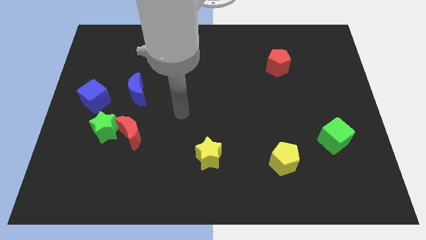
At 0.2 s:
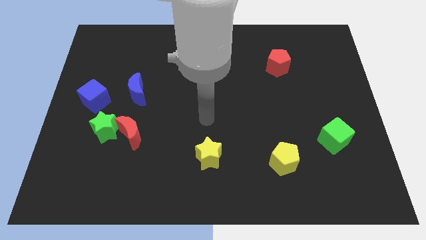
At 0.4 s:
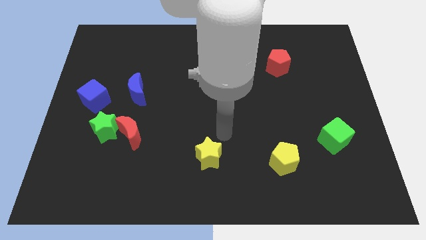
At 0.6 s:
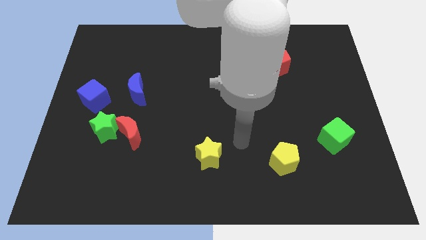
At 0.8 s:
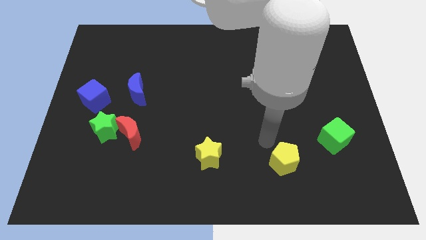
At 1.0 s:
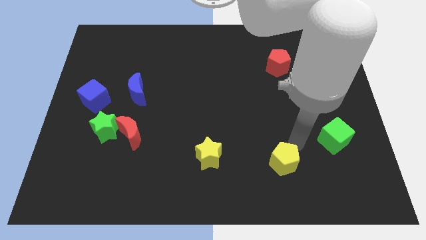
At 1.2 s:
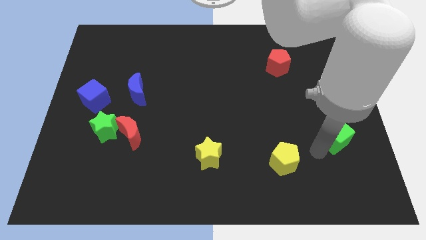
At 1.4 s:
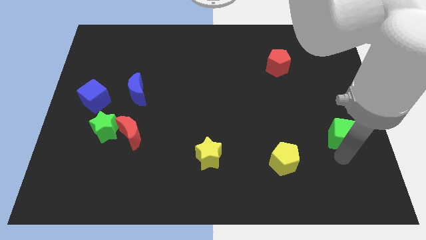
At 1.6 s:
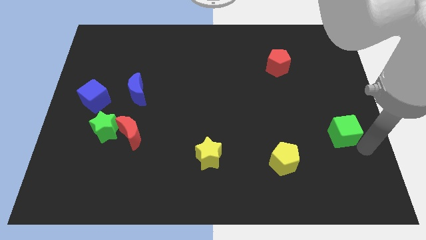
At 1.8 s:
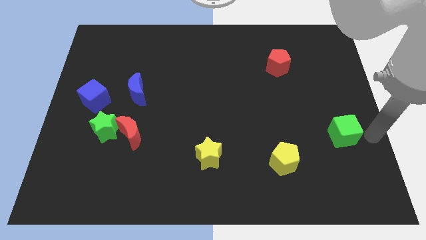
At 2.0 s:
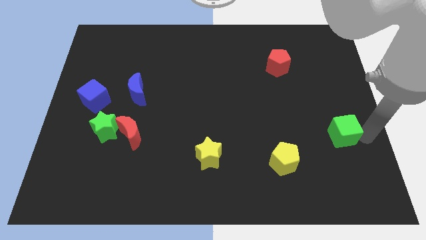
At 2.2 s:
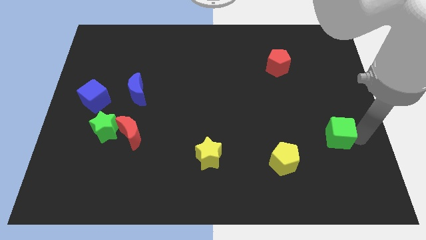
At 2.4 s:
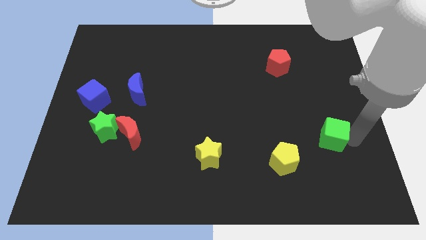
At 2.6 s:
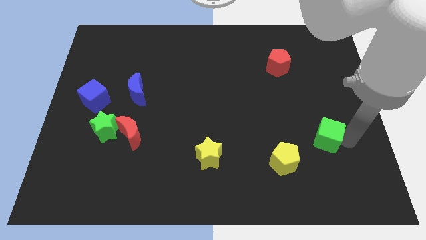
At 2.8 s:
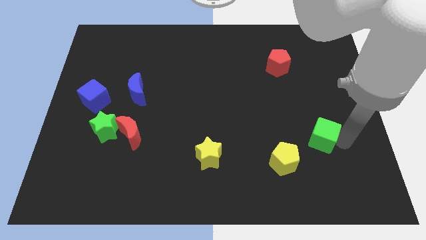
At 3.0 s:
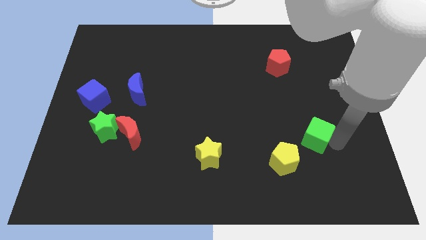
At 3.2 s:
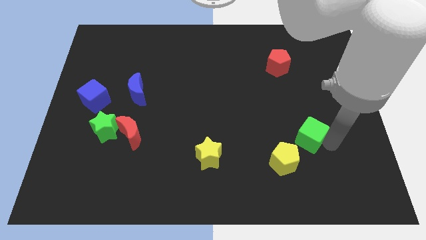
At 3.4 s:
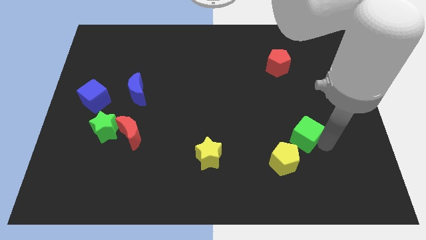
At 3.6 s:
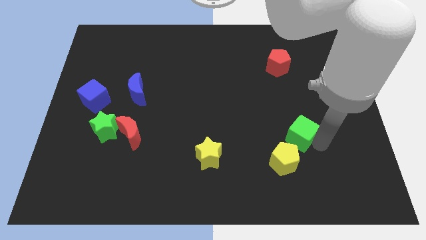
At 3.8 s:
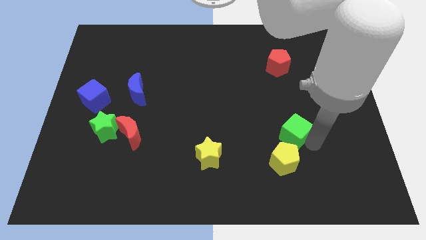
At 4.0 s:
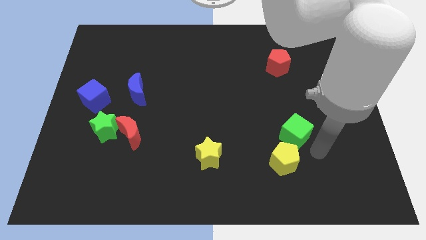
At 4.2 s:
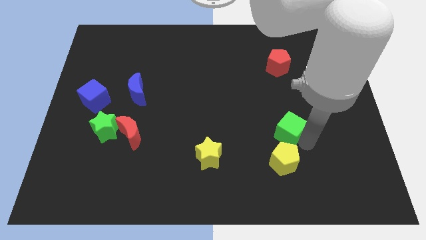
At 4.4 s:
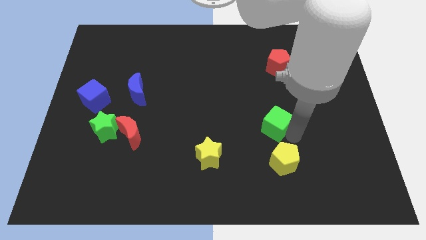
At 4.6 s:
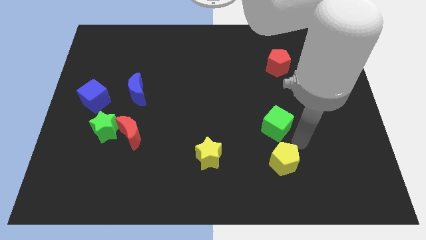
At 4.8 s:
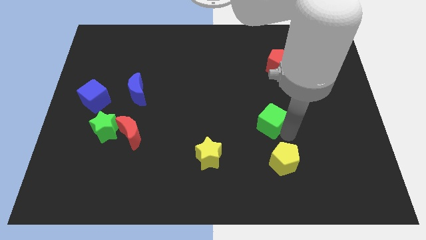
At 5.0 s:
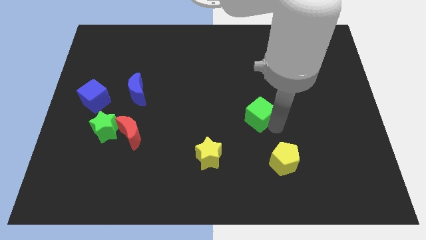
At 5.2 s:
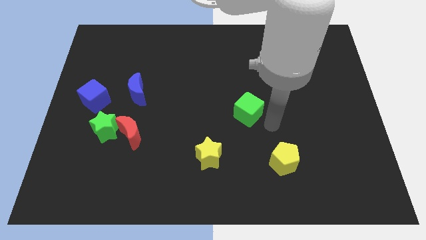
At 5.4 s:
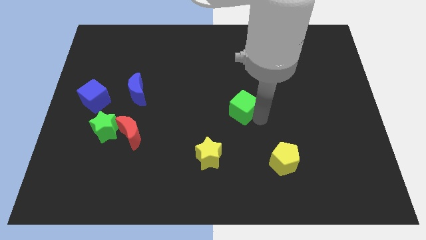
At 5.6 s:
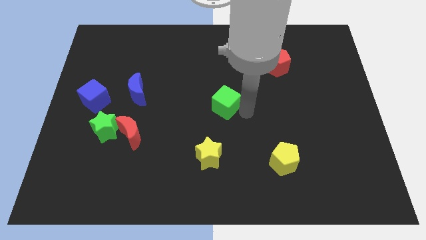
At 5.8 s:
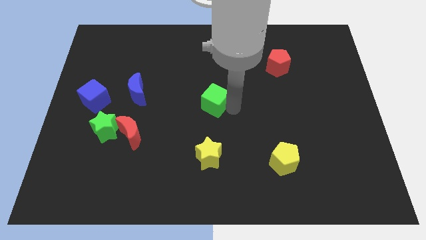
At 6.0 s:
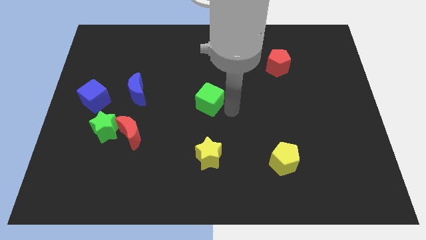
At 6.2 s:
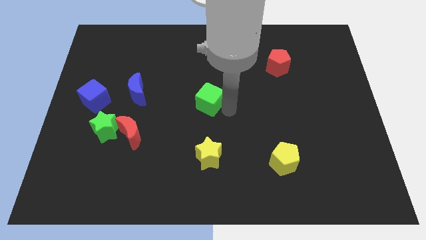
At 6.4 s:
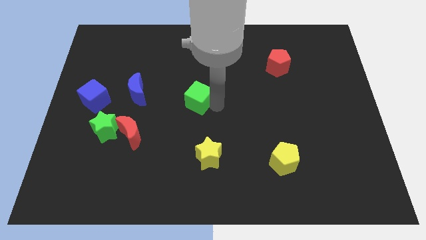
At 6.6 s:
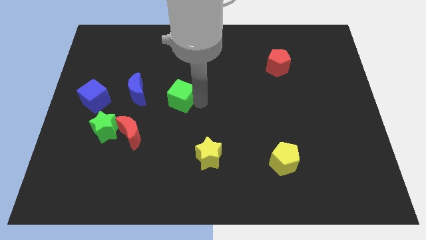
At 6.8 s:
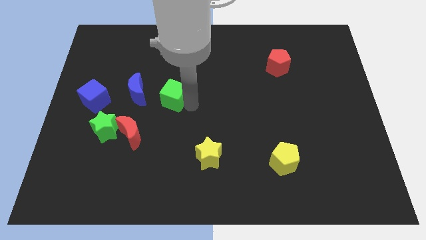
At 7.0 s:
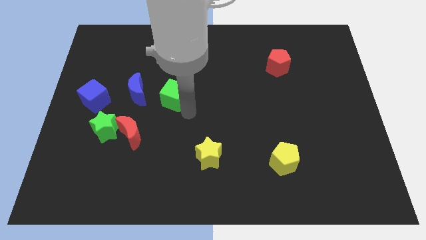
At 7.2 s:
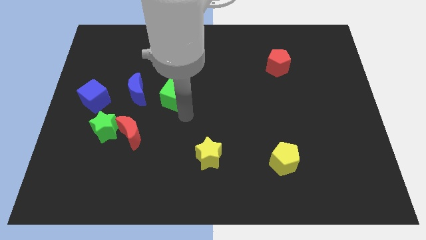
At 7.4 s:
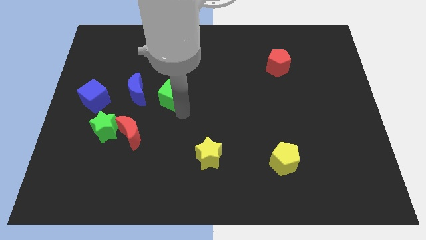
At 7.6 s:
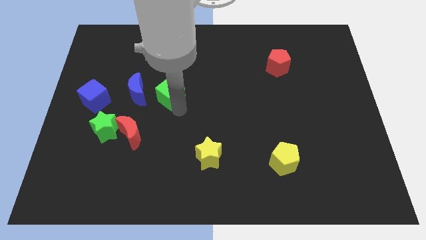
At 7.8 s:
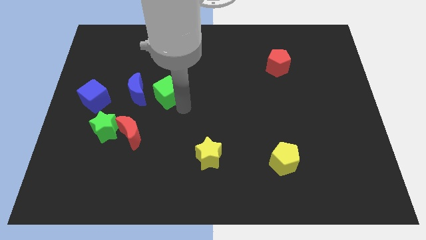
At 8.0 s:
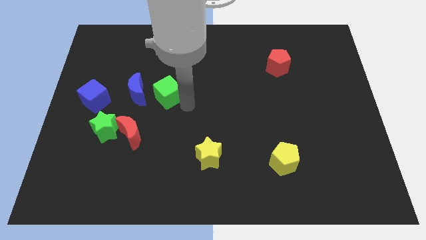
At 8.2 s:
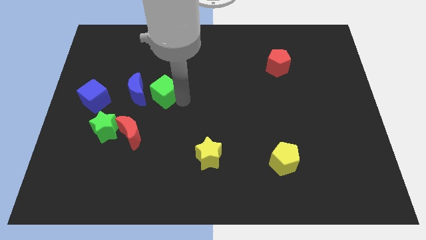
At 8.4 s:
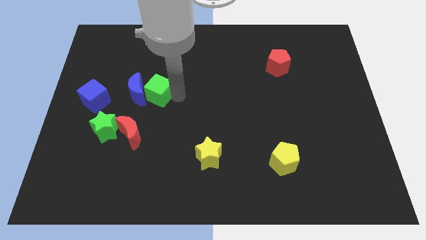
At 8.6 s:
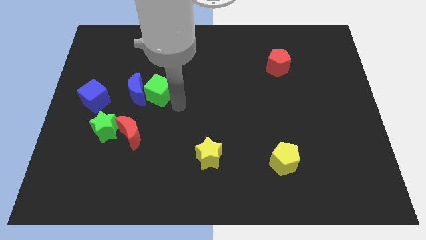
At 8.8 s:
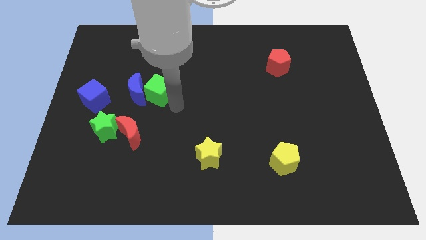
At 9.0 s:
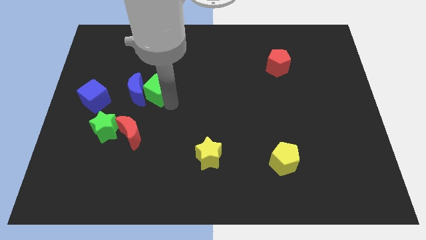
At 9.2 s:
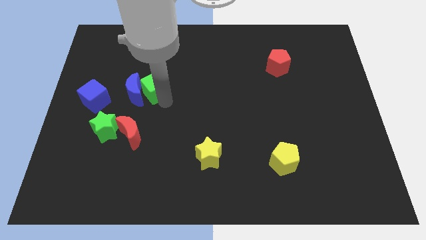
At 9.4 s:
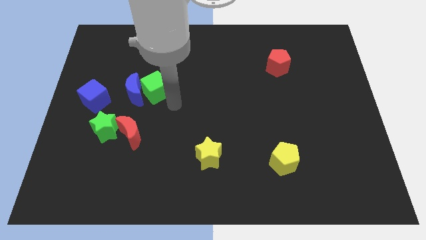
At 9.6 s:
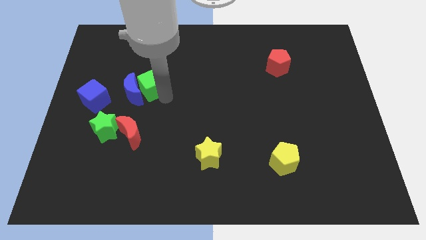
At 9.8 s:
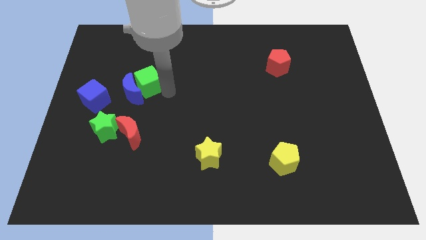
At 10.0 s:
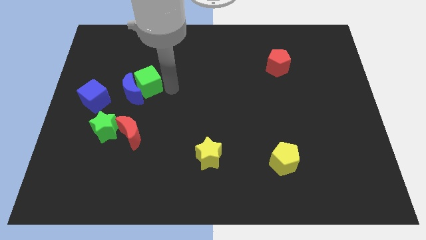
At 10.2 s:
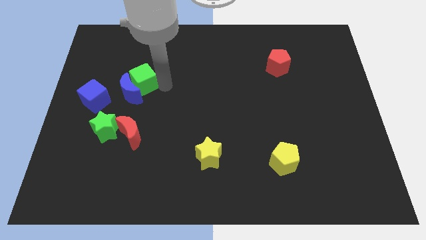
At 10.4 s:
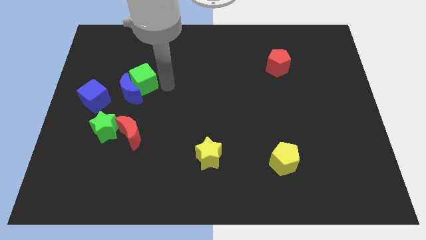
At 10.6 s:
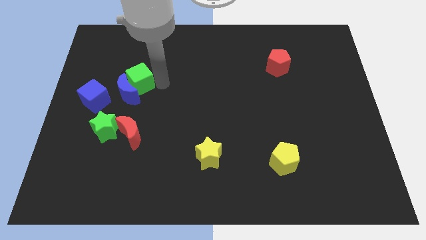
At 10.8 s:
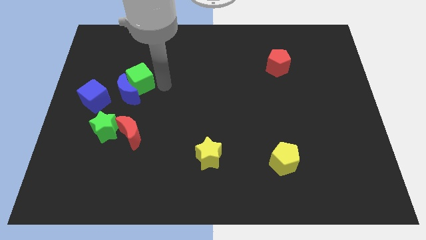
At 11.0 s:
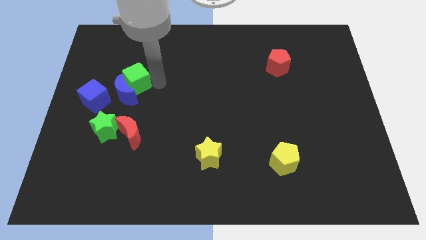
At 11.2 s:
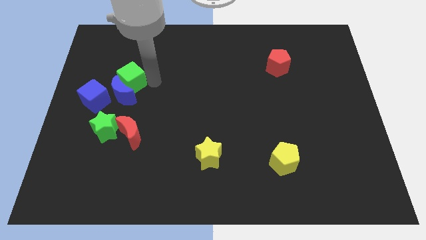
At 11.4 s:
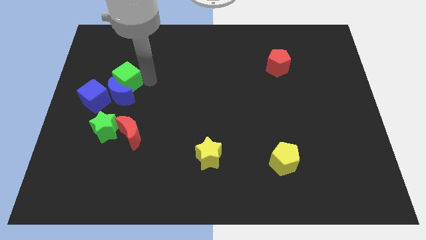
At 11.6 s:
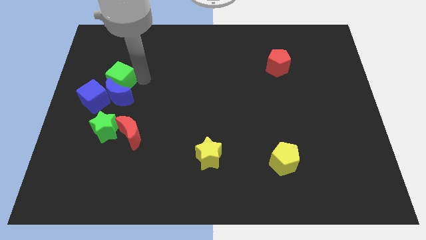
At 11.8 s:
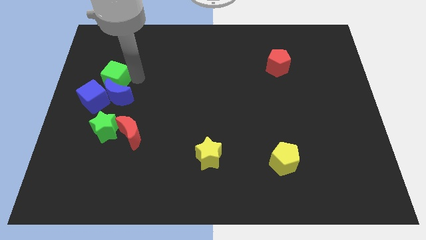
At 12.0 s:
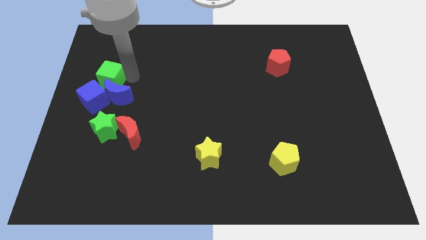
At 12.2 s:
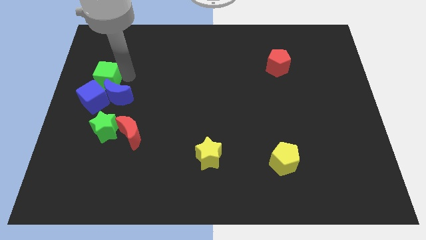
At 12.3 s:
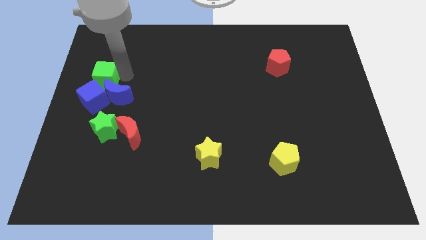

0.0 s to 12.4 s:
push the green cube to the left side

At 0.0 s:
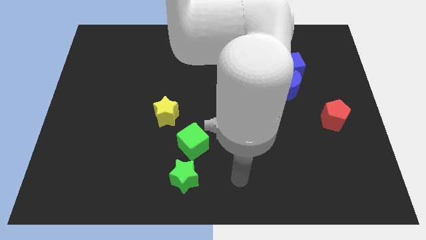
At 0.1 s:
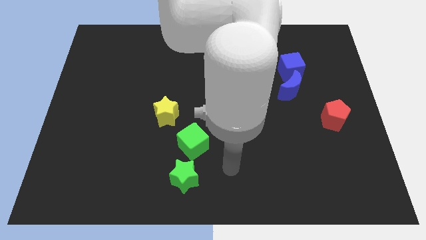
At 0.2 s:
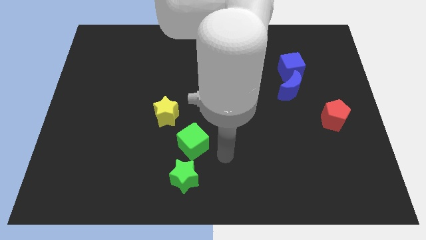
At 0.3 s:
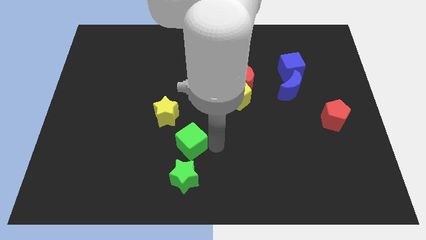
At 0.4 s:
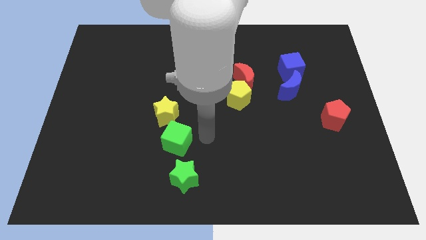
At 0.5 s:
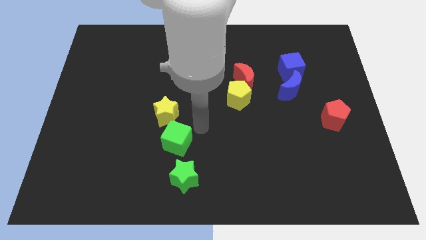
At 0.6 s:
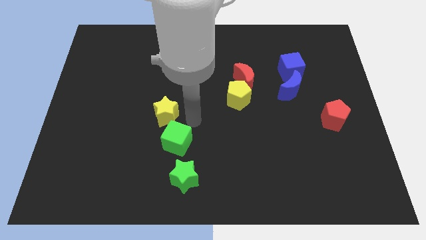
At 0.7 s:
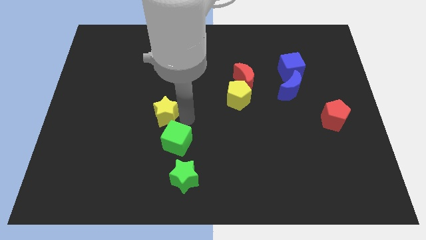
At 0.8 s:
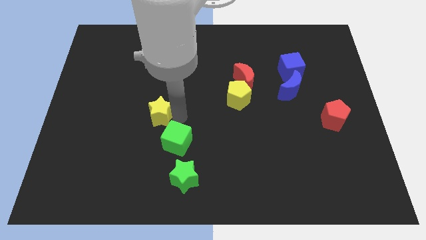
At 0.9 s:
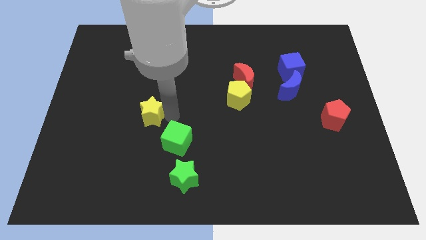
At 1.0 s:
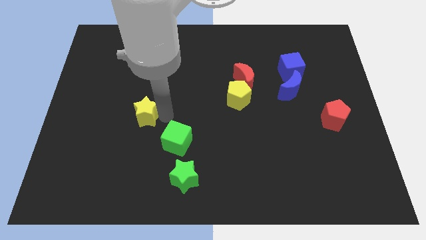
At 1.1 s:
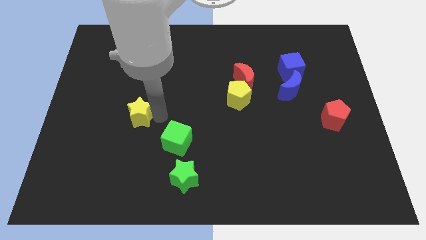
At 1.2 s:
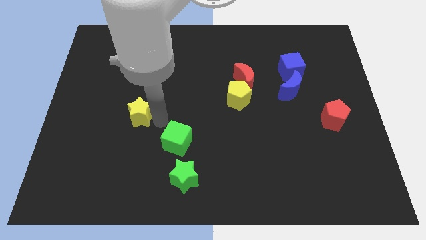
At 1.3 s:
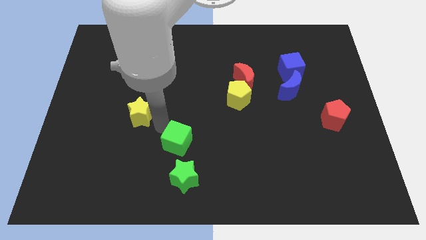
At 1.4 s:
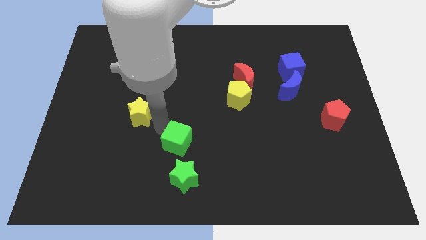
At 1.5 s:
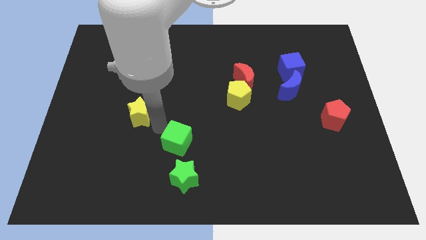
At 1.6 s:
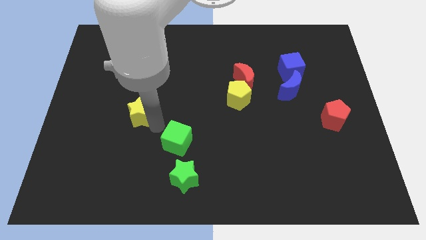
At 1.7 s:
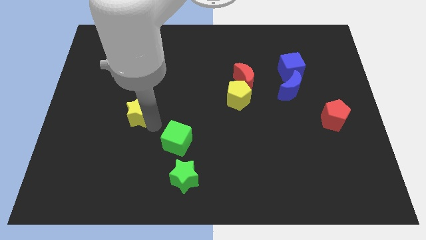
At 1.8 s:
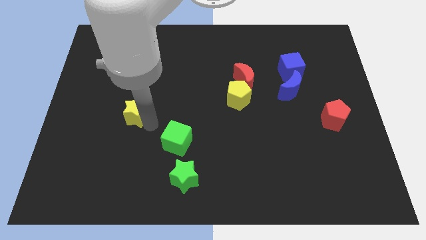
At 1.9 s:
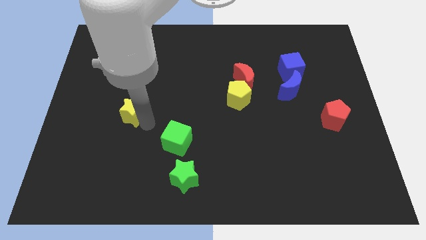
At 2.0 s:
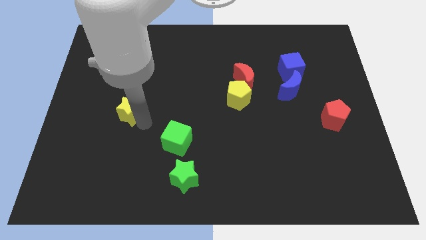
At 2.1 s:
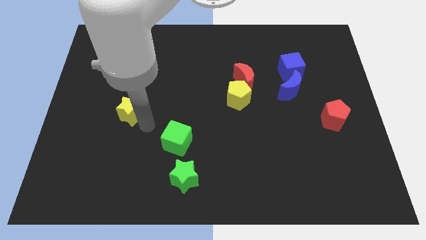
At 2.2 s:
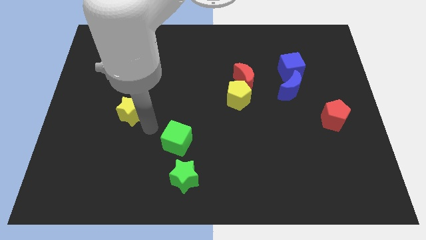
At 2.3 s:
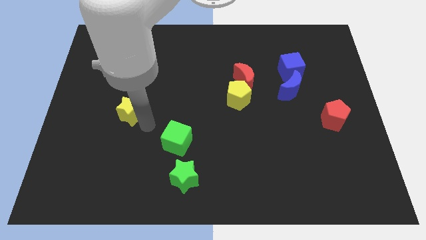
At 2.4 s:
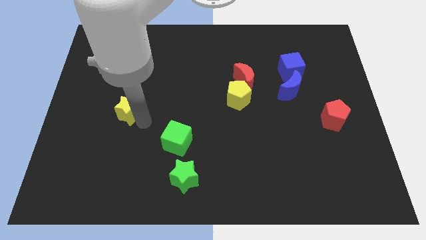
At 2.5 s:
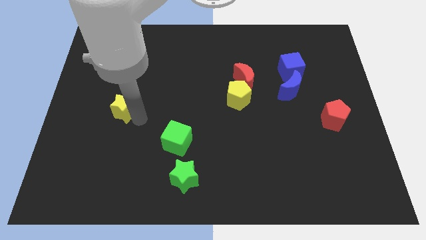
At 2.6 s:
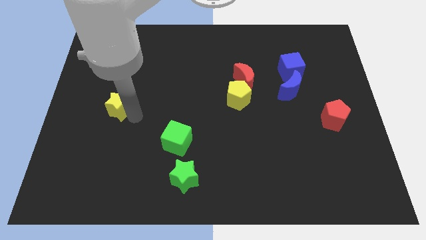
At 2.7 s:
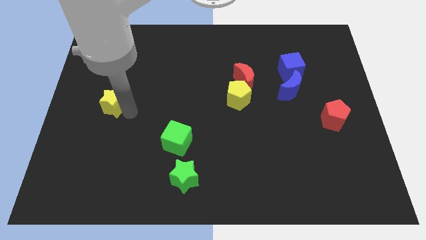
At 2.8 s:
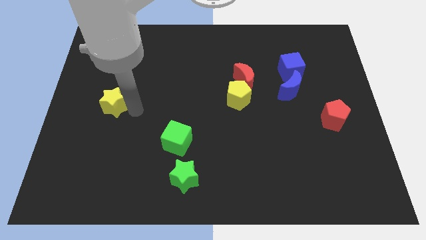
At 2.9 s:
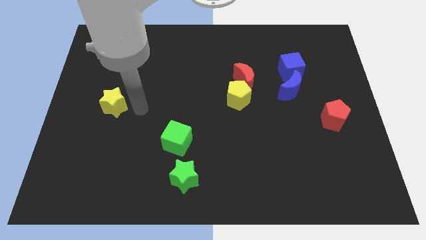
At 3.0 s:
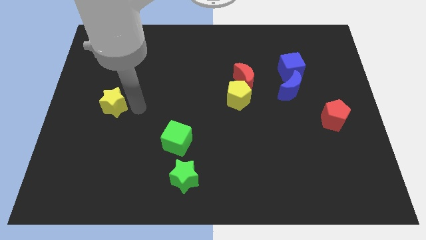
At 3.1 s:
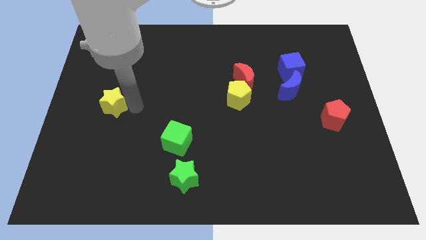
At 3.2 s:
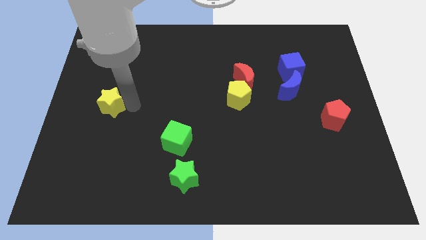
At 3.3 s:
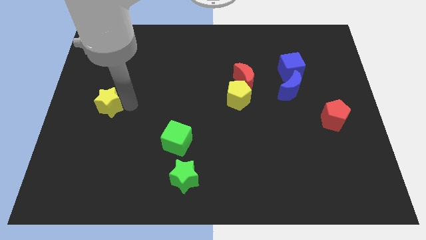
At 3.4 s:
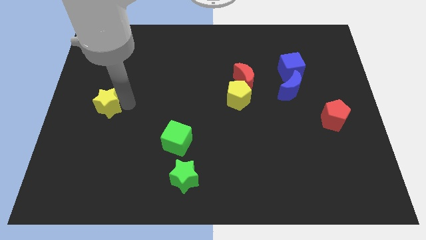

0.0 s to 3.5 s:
slide the yellow star to the center left
